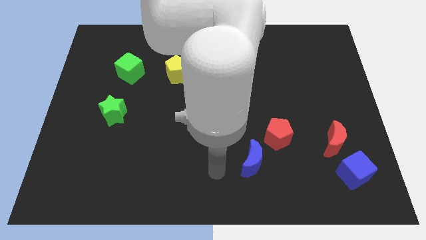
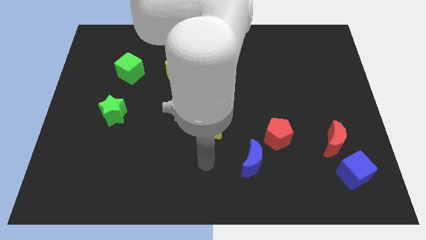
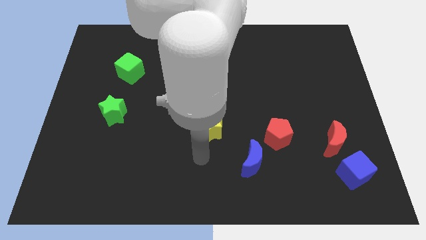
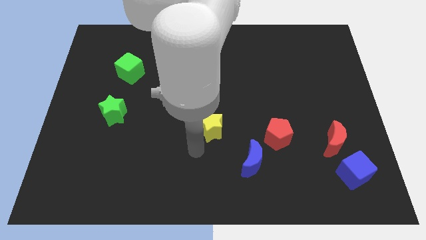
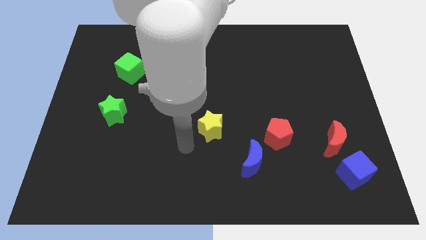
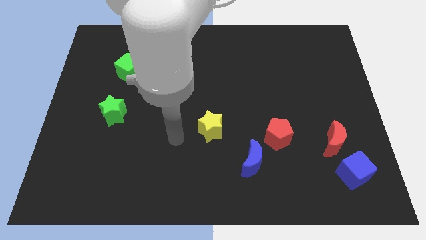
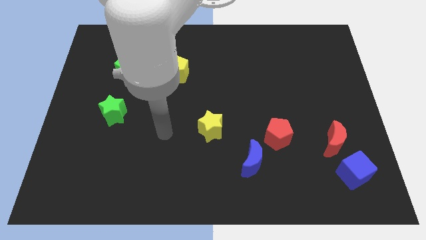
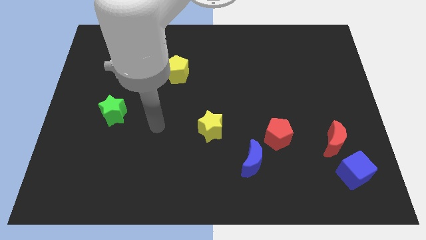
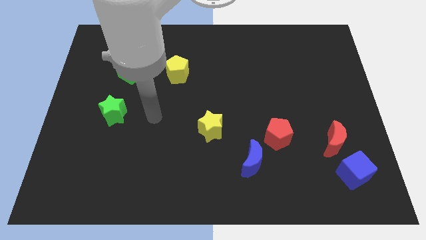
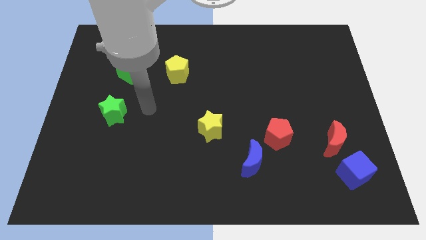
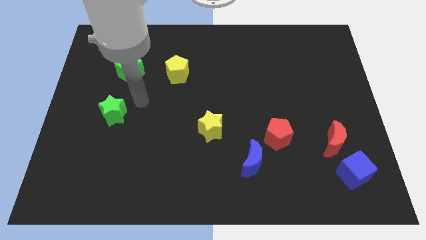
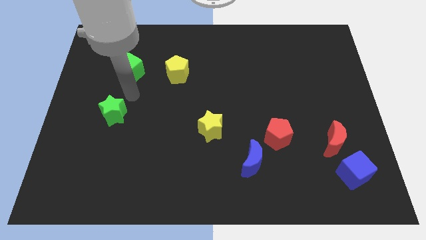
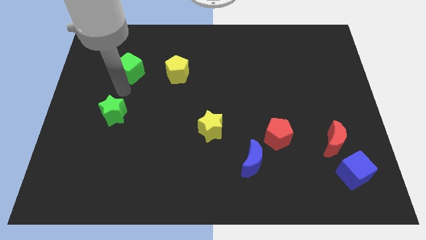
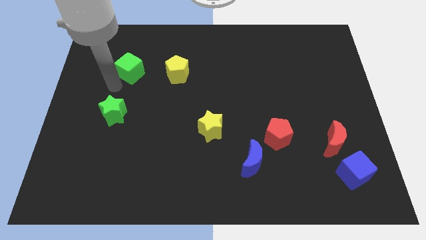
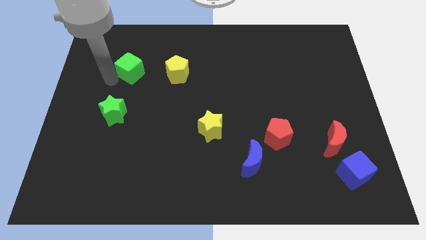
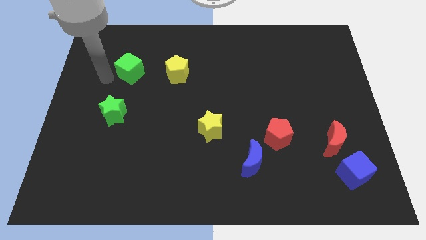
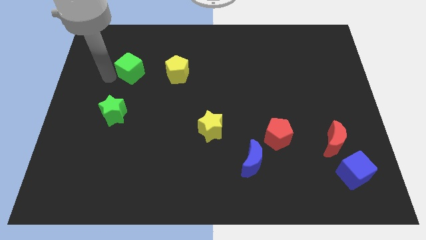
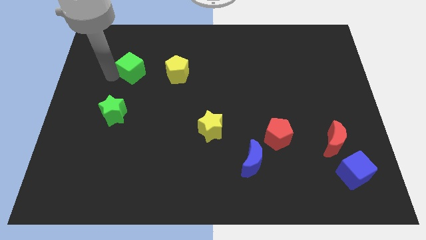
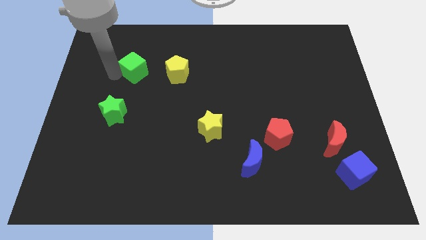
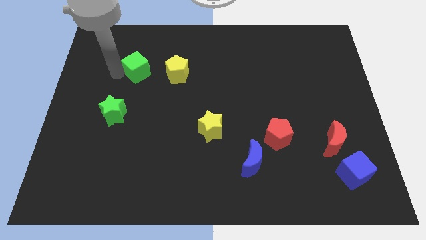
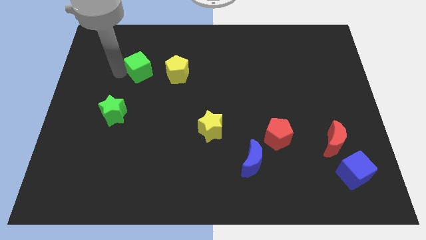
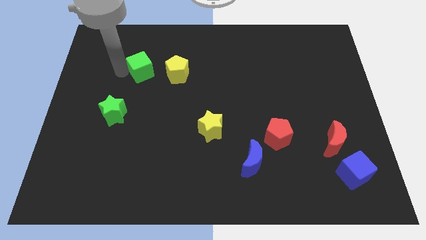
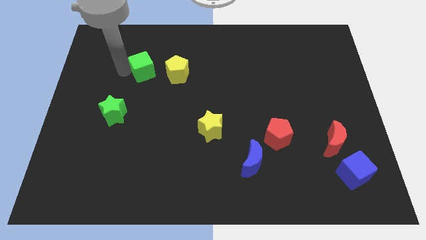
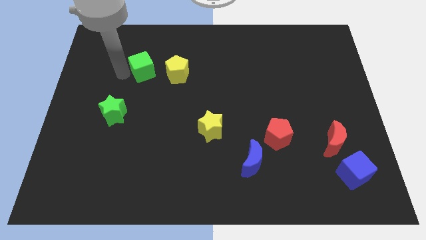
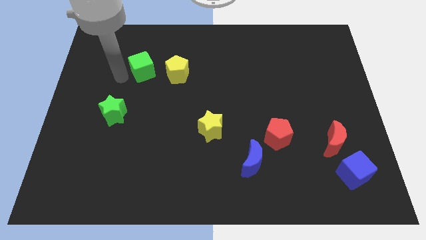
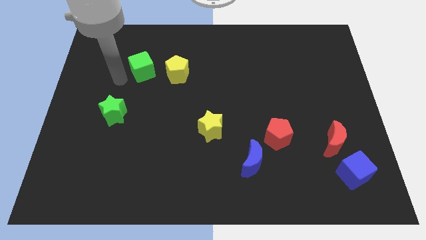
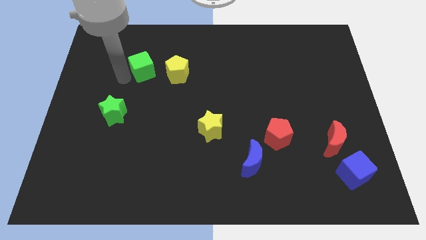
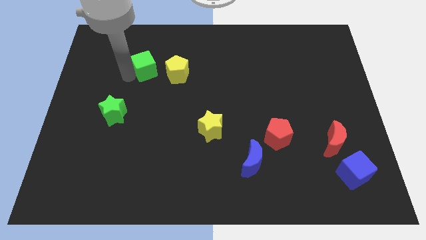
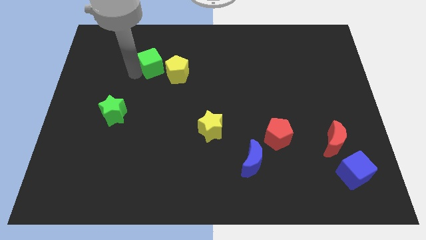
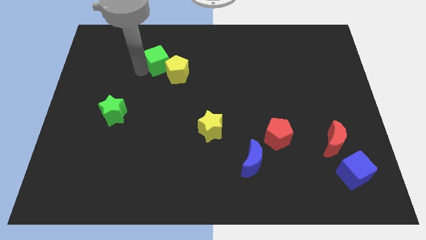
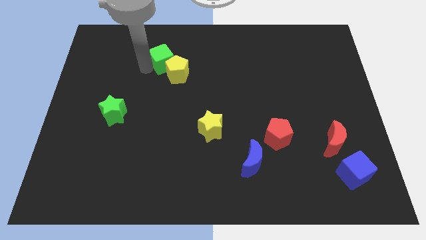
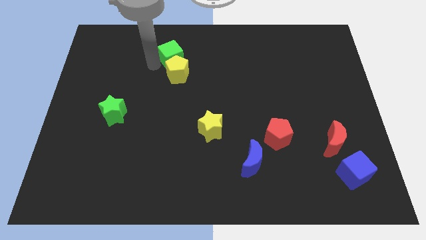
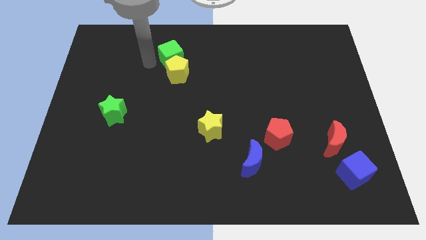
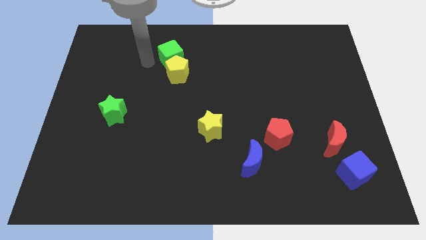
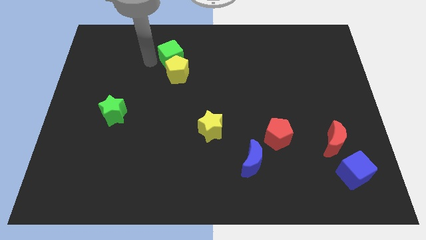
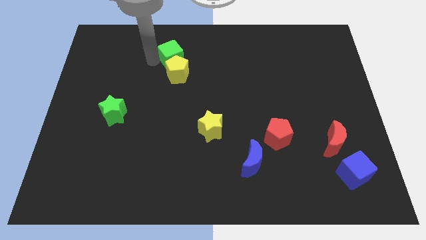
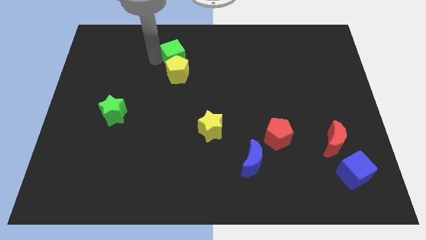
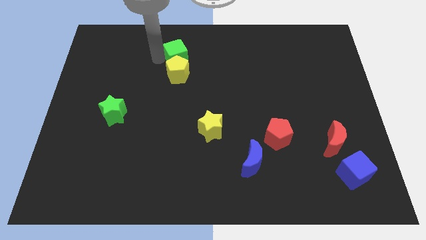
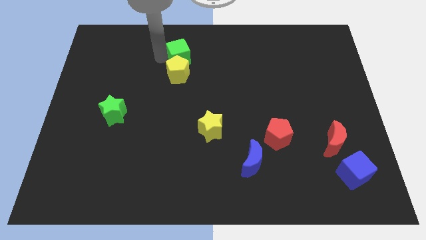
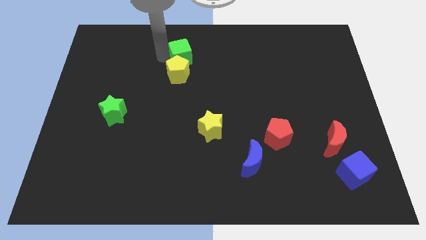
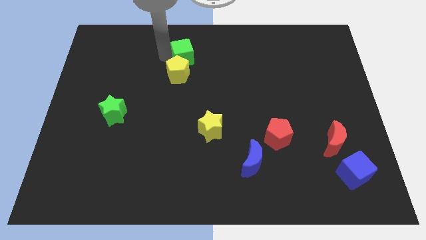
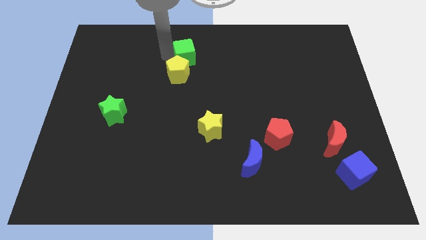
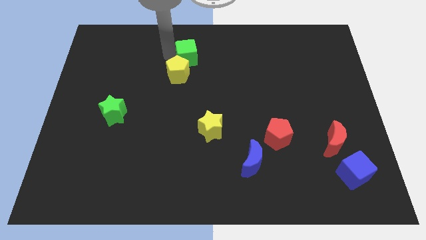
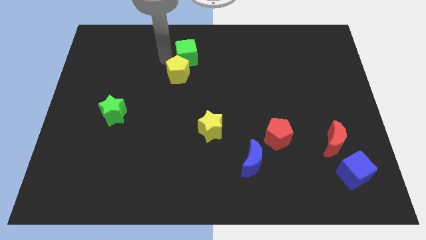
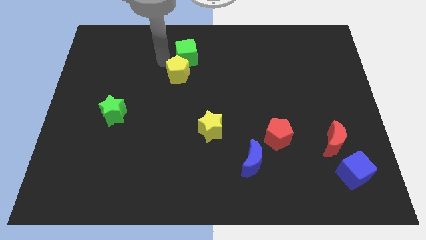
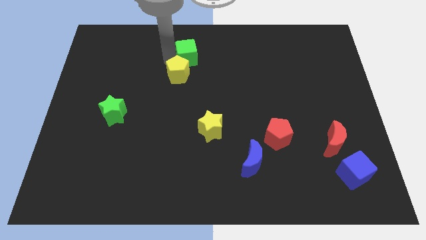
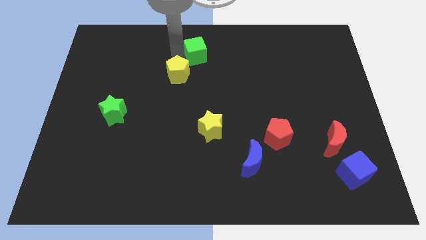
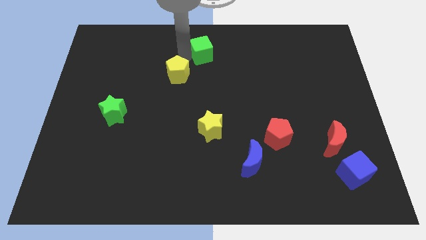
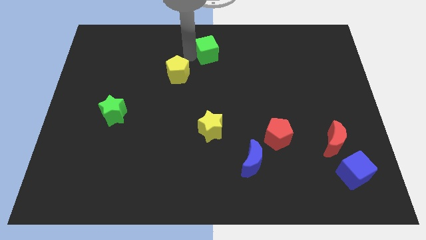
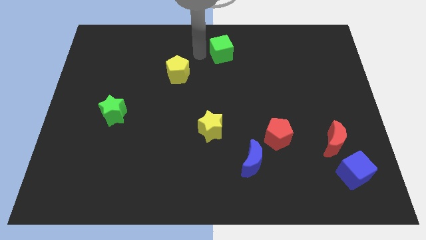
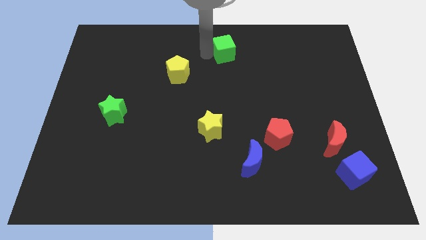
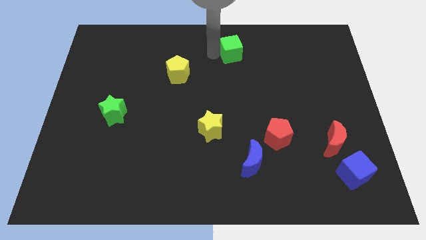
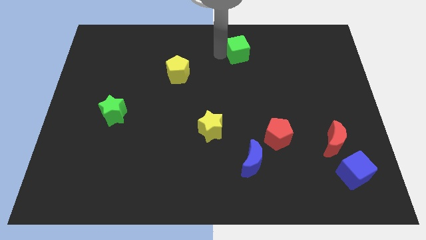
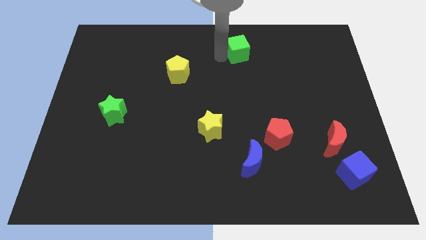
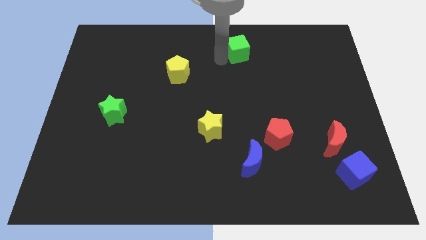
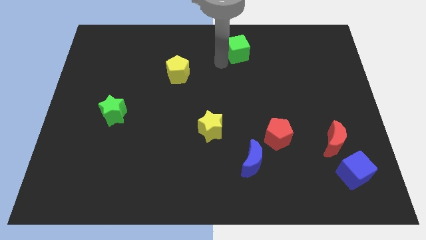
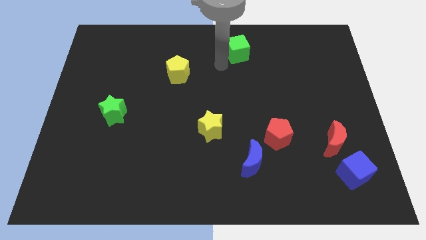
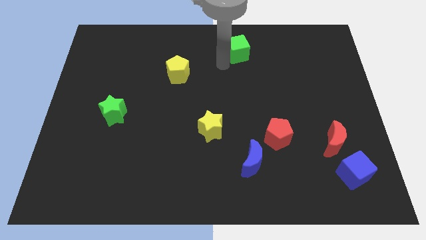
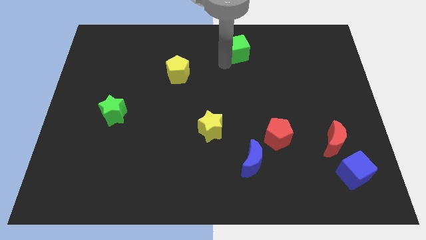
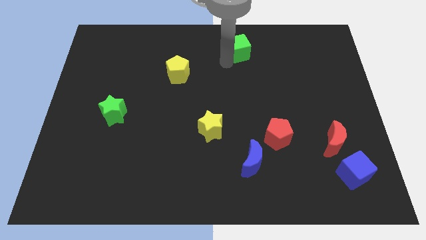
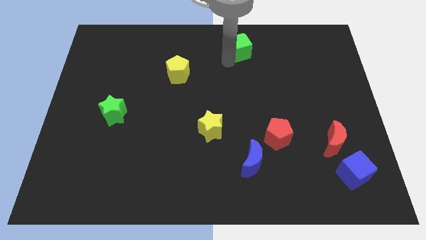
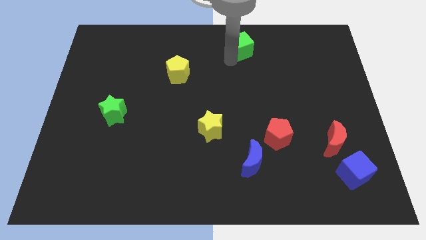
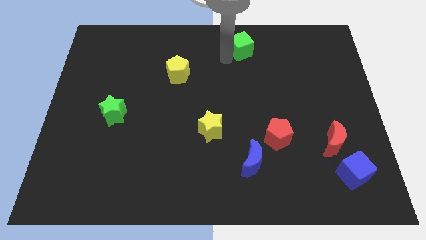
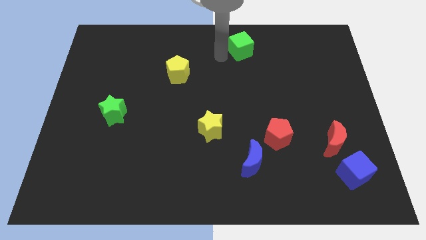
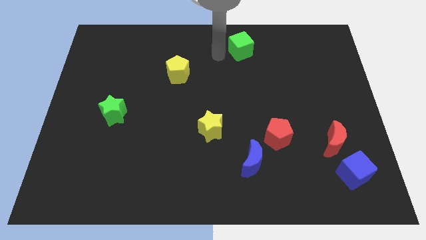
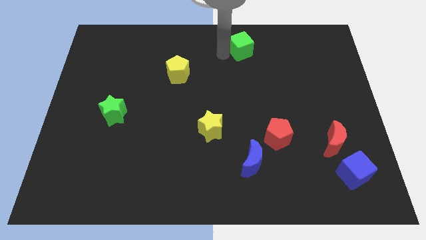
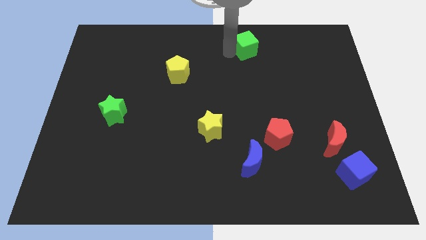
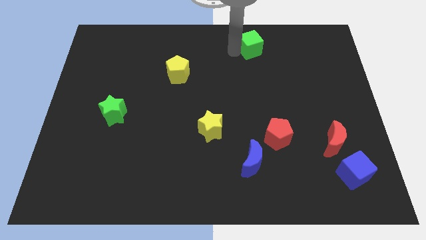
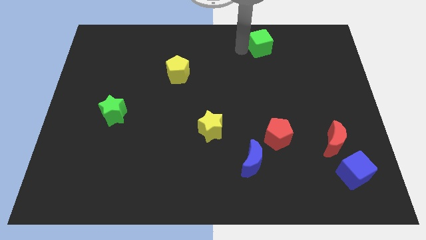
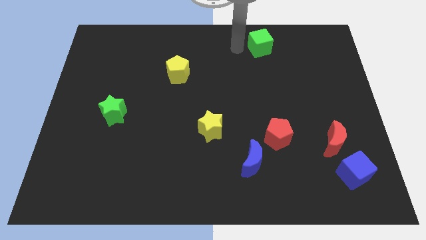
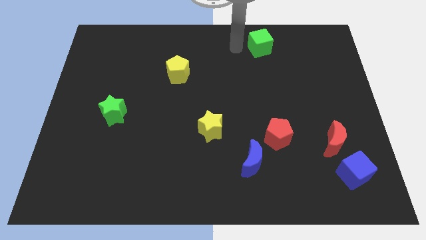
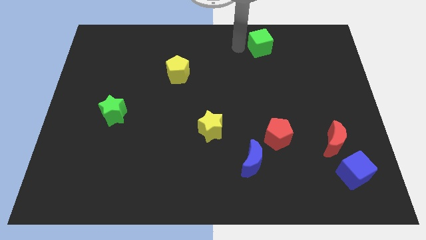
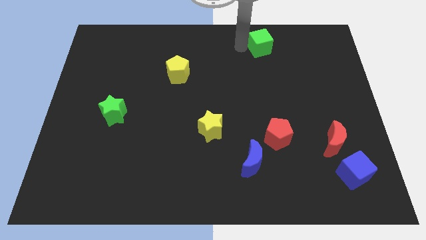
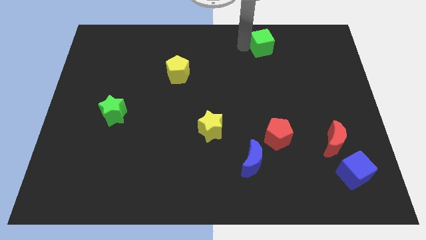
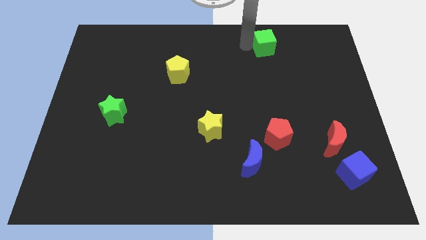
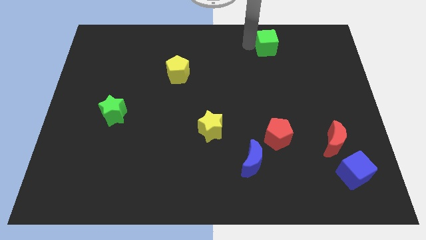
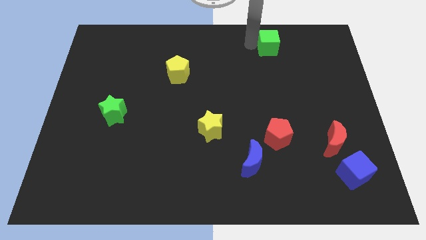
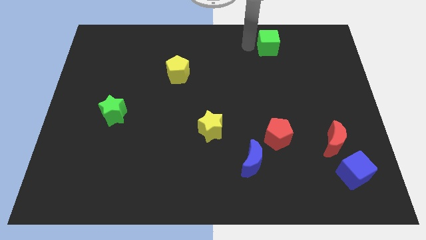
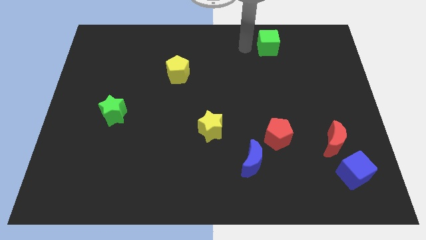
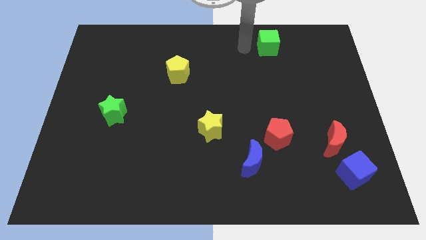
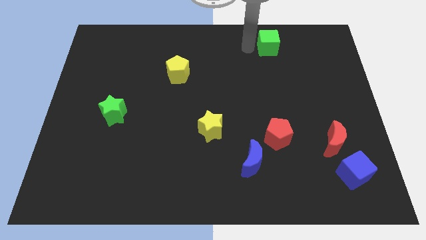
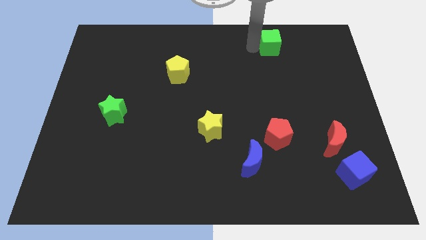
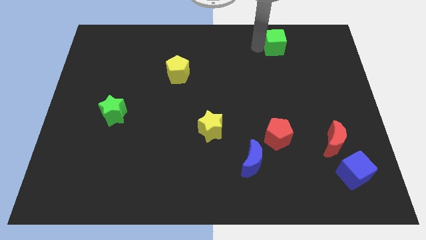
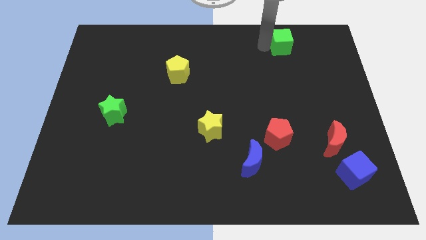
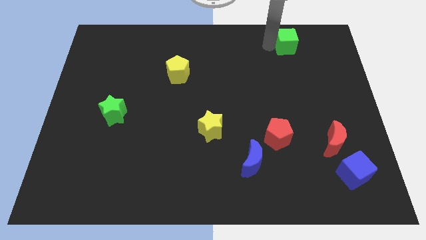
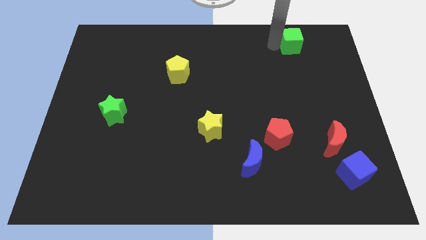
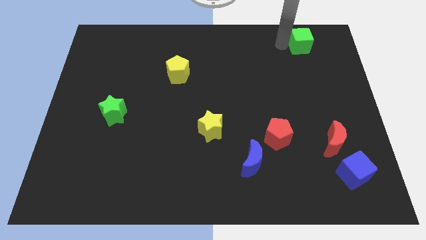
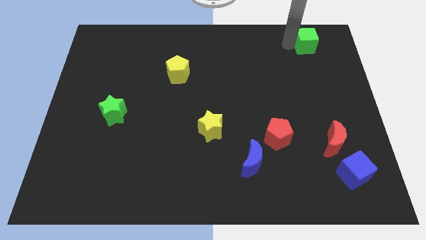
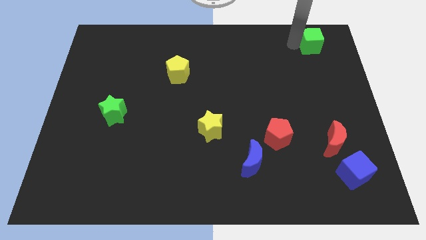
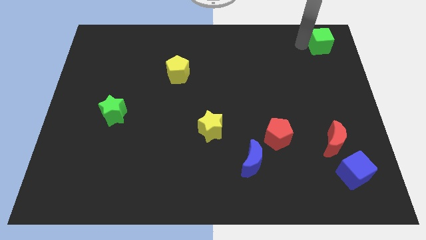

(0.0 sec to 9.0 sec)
move the green cube to the top right corner
